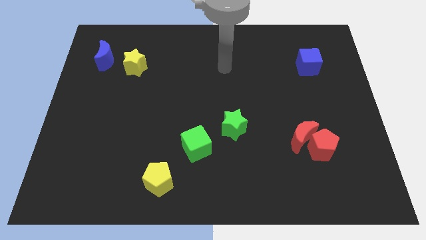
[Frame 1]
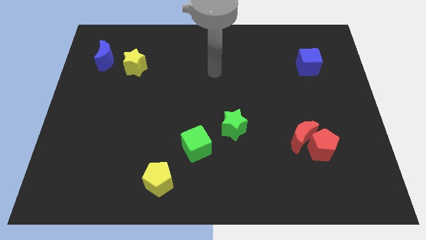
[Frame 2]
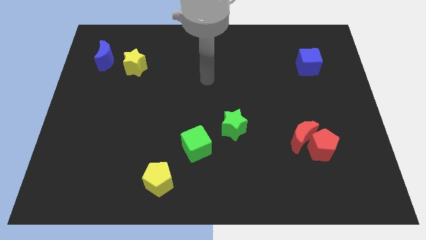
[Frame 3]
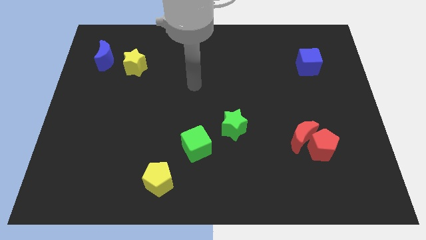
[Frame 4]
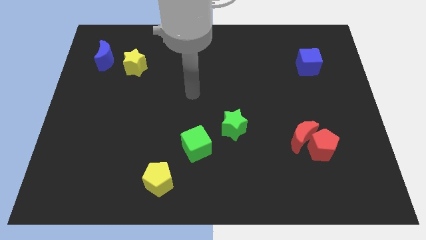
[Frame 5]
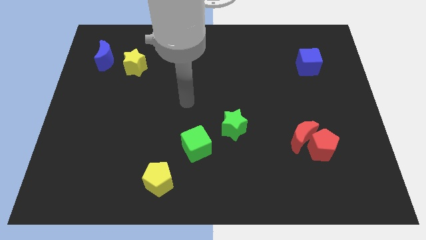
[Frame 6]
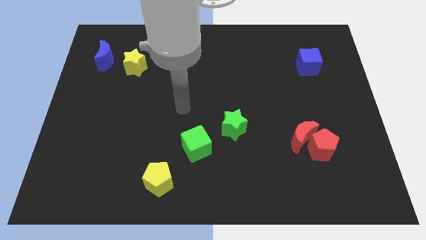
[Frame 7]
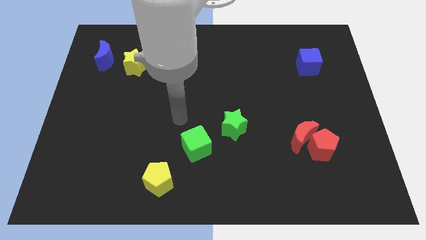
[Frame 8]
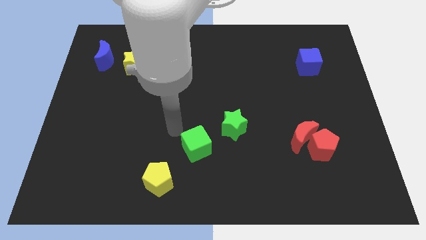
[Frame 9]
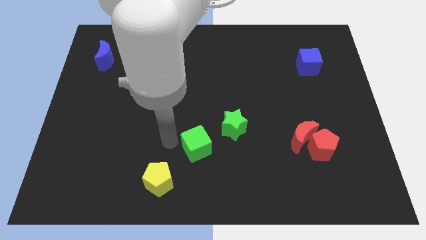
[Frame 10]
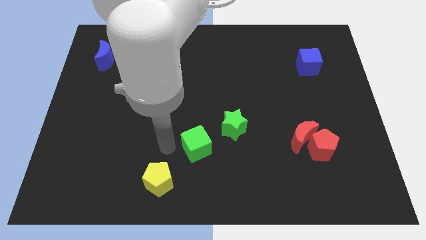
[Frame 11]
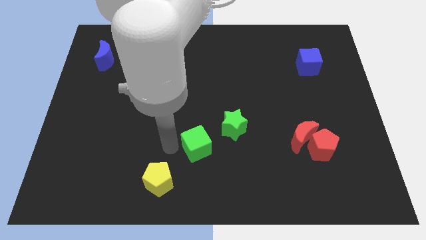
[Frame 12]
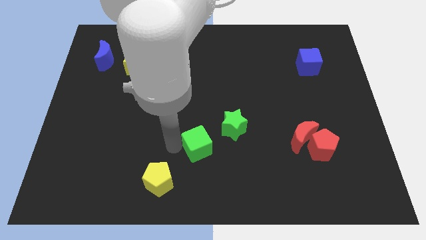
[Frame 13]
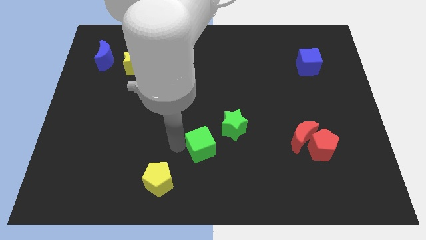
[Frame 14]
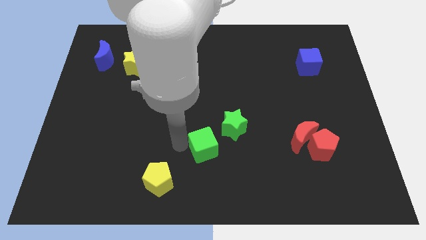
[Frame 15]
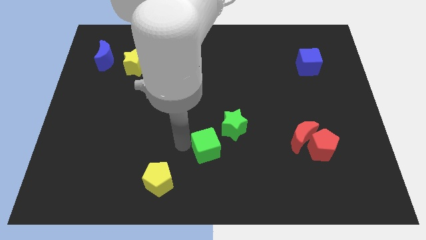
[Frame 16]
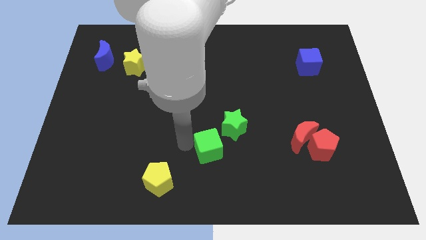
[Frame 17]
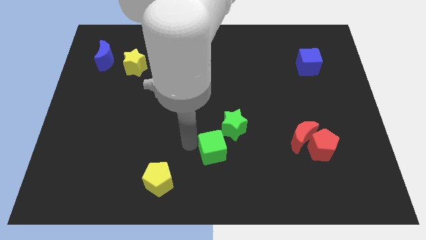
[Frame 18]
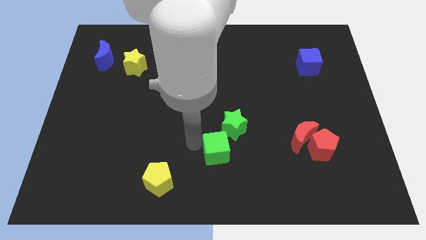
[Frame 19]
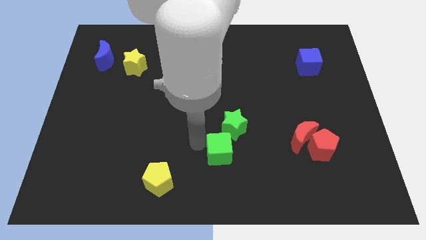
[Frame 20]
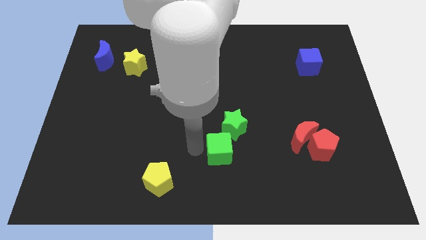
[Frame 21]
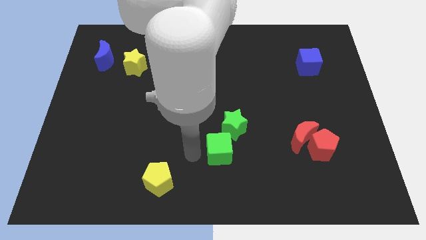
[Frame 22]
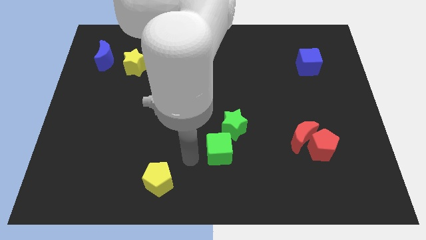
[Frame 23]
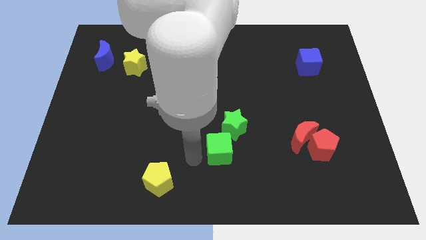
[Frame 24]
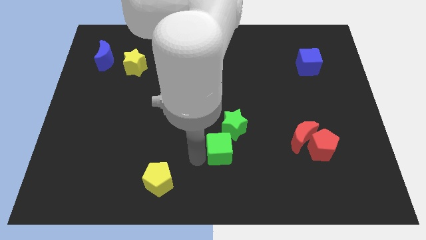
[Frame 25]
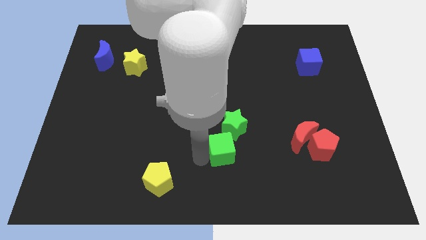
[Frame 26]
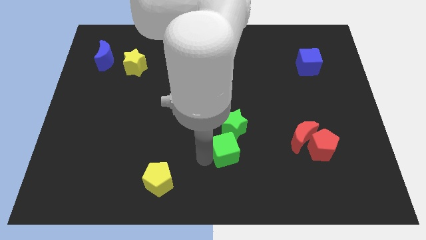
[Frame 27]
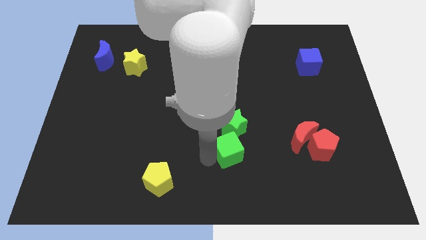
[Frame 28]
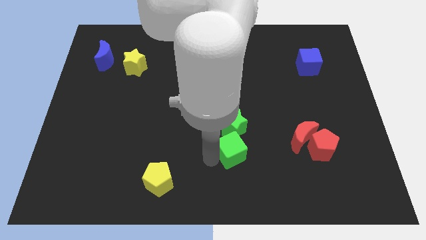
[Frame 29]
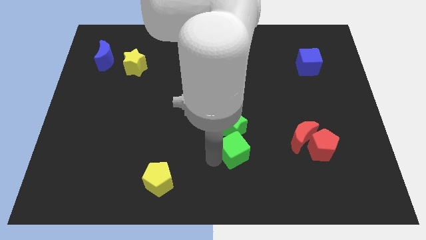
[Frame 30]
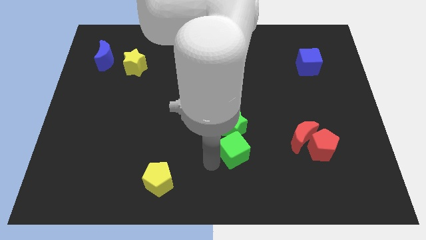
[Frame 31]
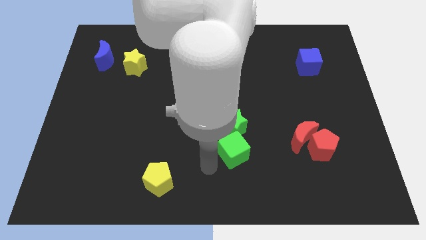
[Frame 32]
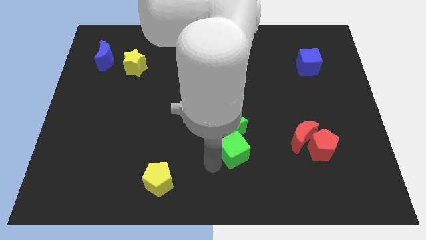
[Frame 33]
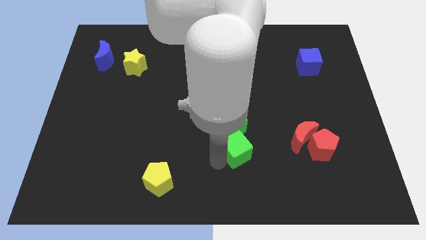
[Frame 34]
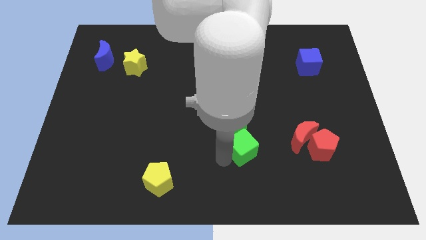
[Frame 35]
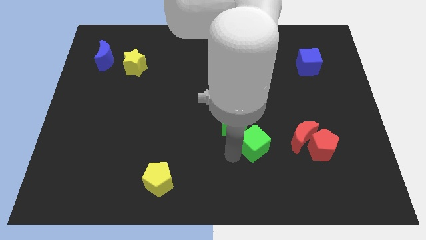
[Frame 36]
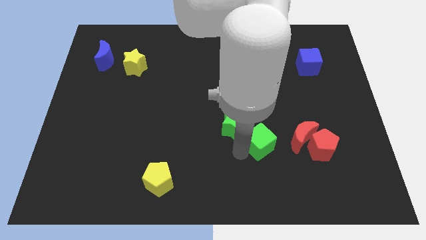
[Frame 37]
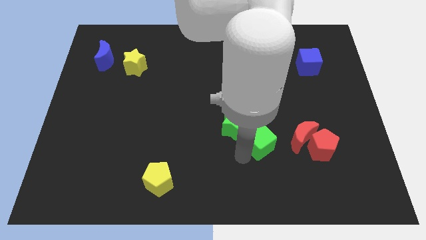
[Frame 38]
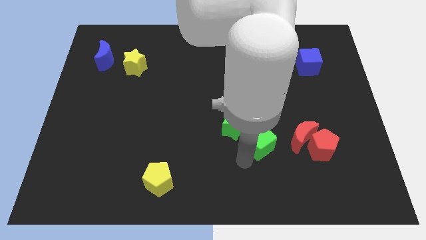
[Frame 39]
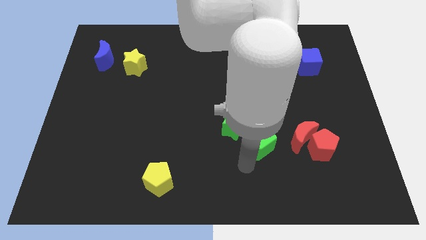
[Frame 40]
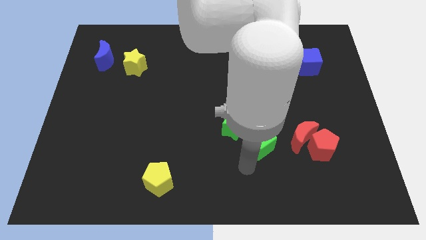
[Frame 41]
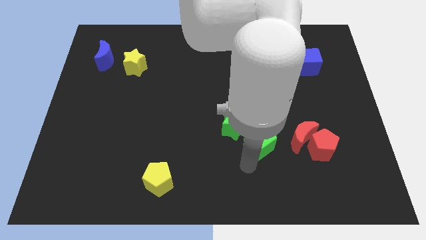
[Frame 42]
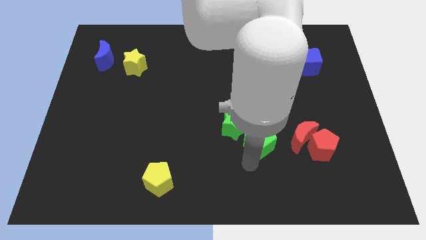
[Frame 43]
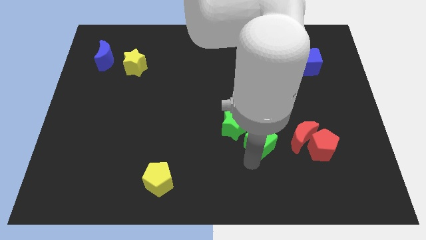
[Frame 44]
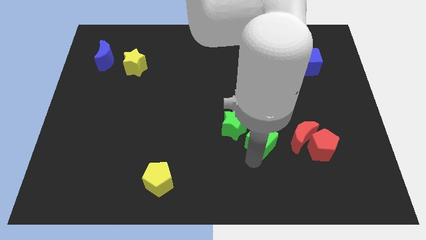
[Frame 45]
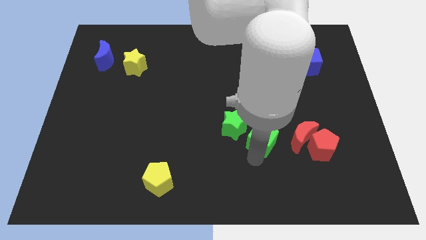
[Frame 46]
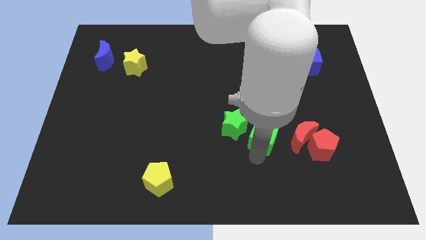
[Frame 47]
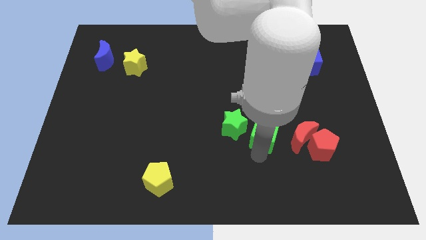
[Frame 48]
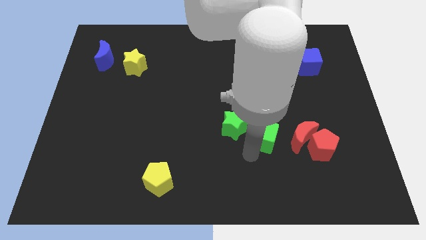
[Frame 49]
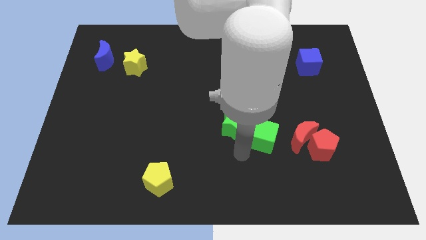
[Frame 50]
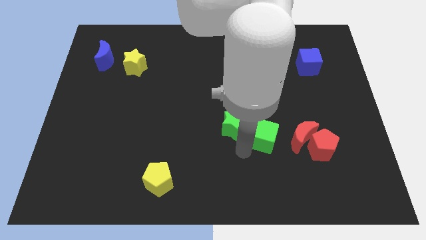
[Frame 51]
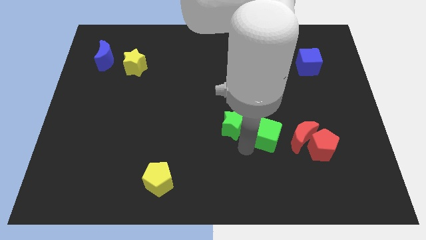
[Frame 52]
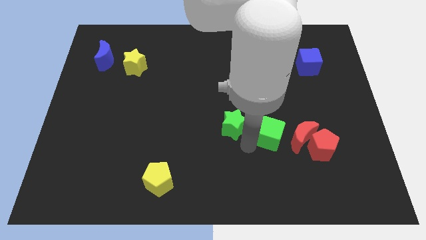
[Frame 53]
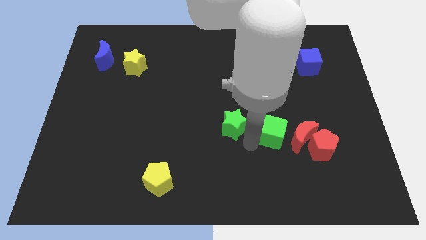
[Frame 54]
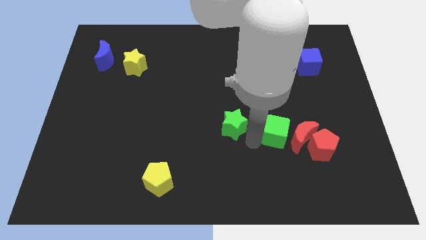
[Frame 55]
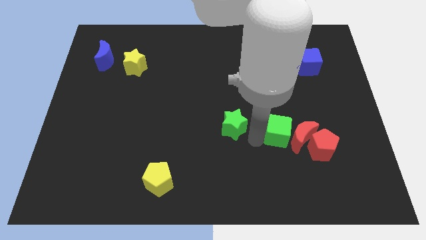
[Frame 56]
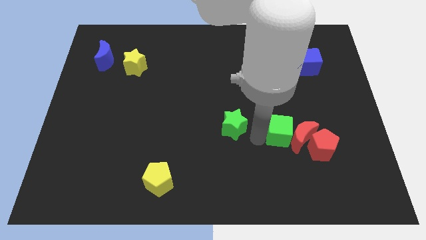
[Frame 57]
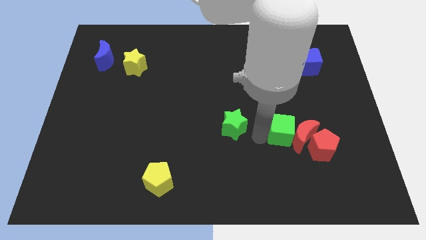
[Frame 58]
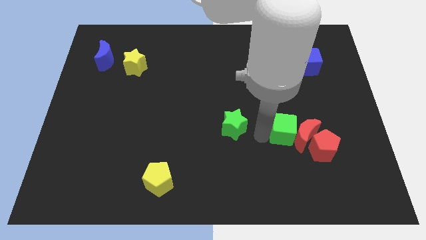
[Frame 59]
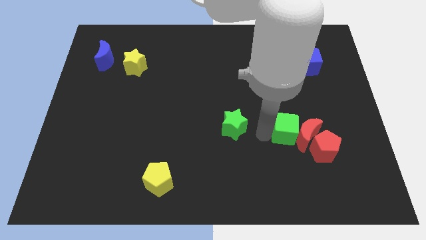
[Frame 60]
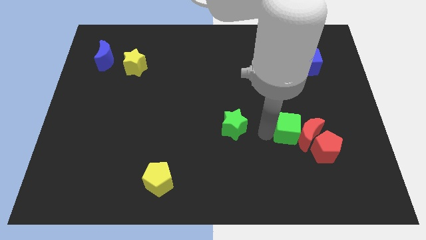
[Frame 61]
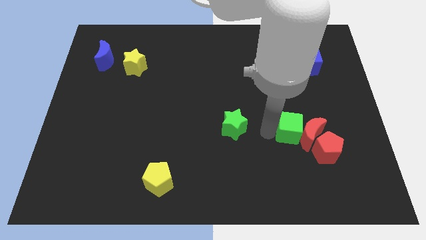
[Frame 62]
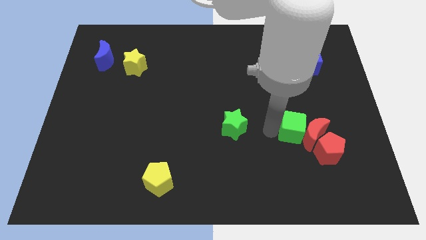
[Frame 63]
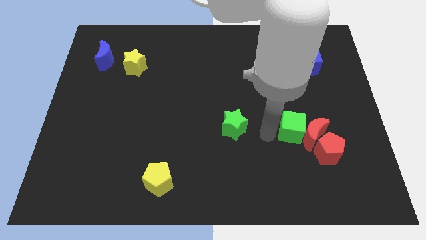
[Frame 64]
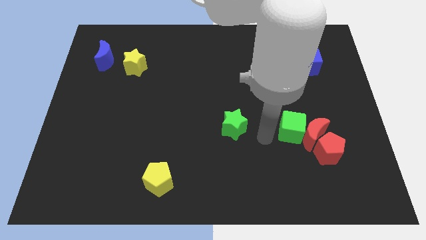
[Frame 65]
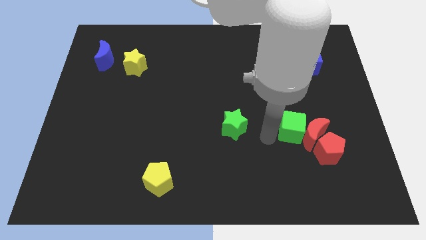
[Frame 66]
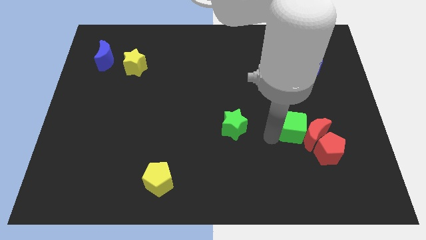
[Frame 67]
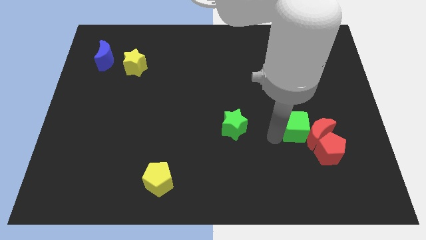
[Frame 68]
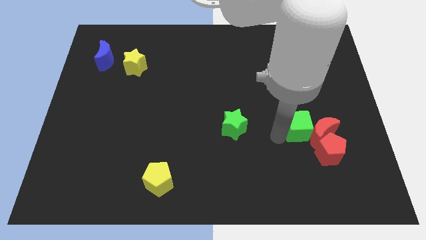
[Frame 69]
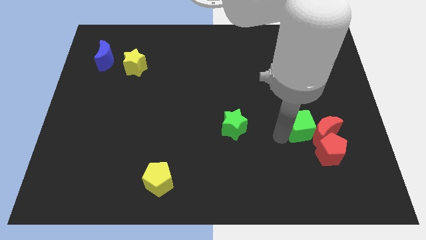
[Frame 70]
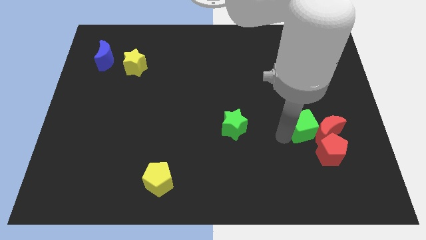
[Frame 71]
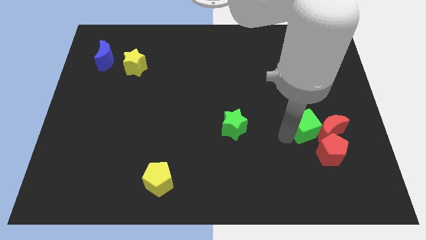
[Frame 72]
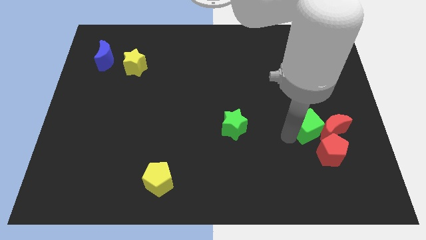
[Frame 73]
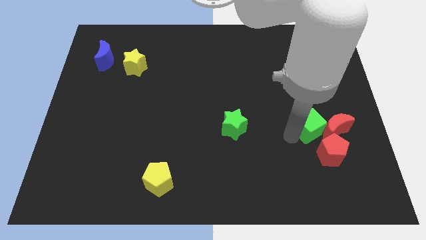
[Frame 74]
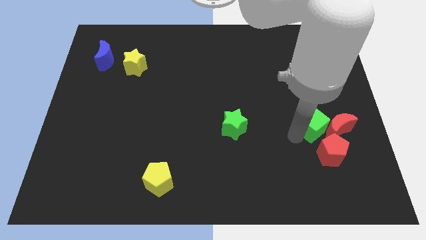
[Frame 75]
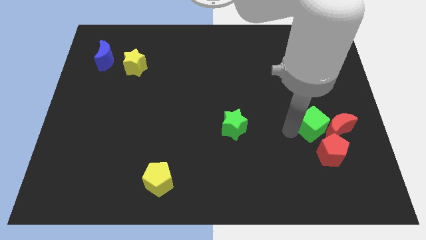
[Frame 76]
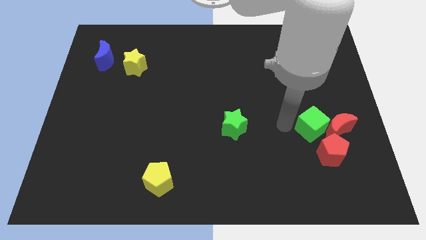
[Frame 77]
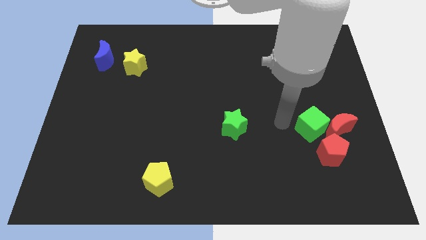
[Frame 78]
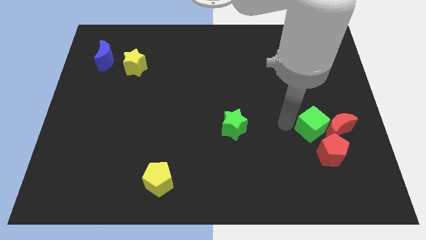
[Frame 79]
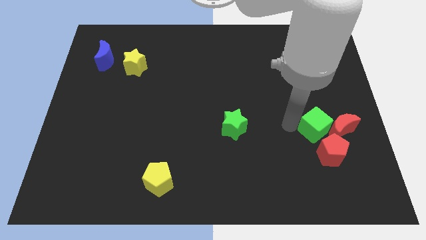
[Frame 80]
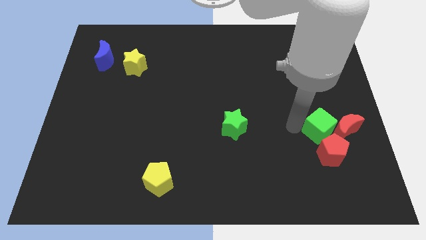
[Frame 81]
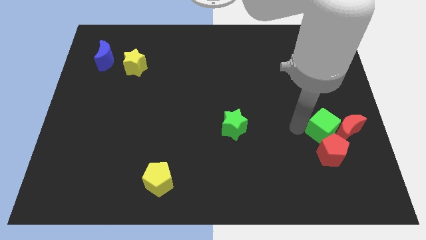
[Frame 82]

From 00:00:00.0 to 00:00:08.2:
push the green cube to the top right side of the red pentagon
